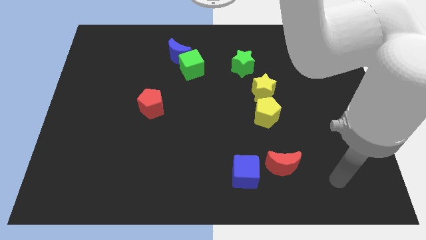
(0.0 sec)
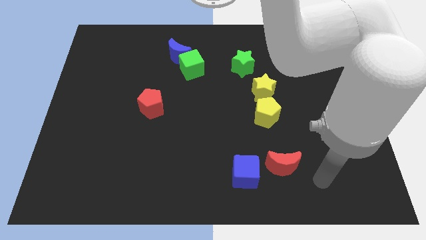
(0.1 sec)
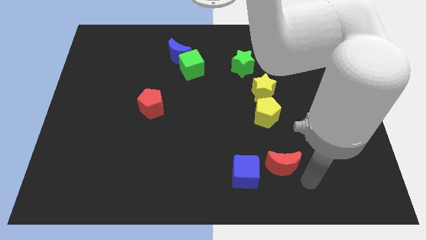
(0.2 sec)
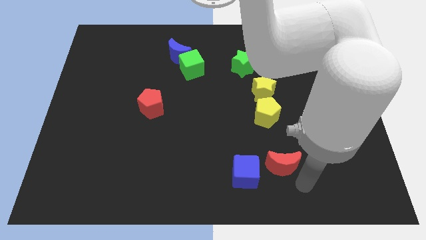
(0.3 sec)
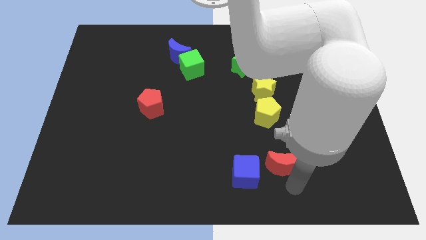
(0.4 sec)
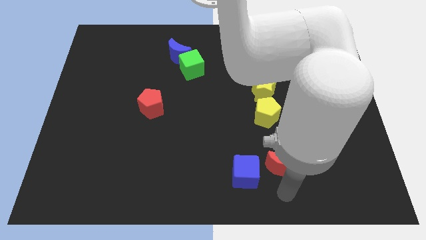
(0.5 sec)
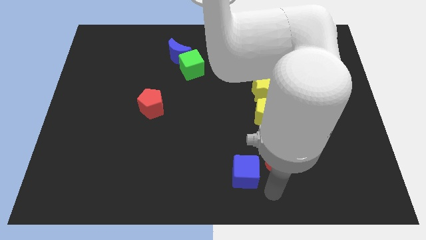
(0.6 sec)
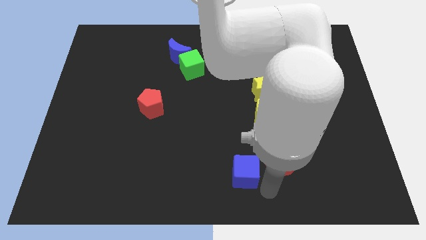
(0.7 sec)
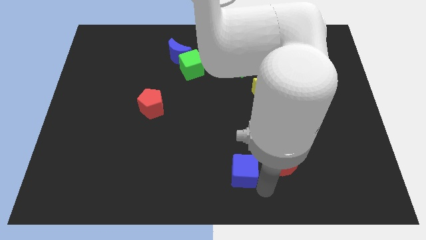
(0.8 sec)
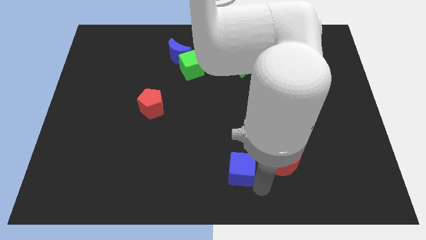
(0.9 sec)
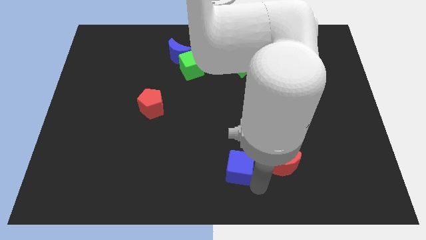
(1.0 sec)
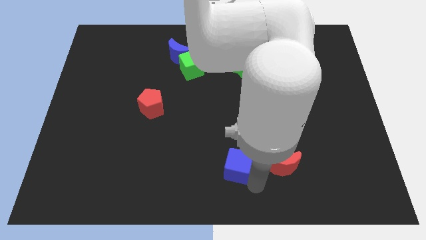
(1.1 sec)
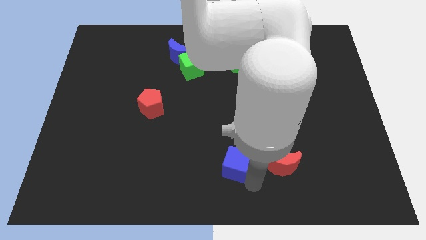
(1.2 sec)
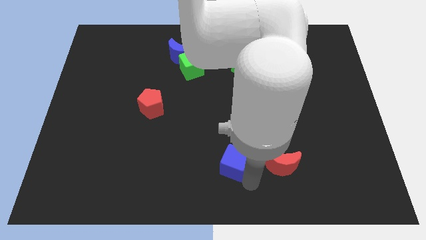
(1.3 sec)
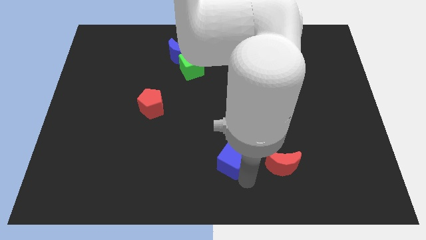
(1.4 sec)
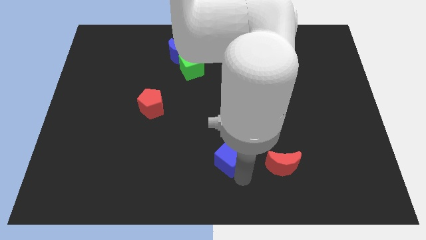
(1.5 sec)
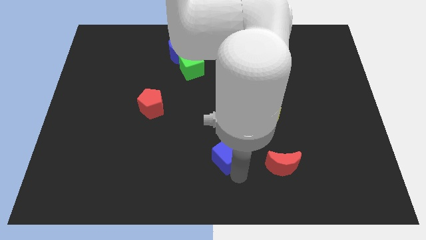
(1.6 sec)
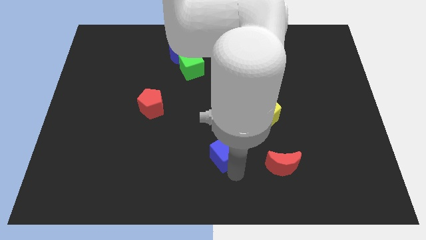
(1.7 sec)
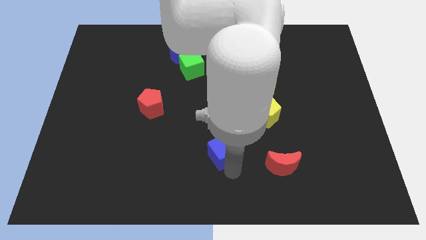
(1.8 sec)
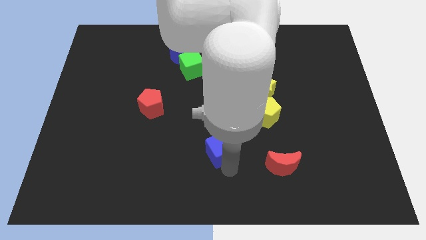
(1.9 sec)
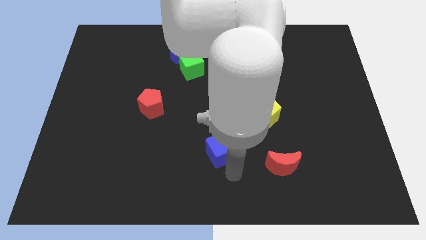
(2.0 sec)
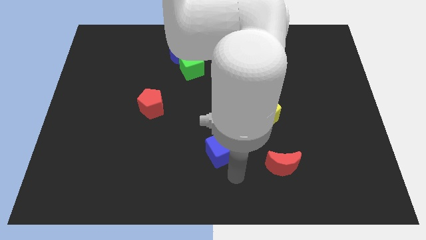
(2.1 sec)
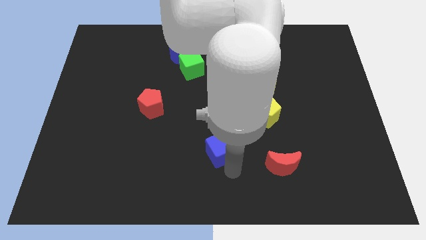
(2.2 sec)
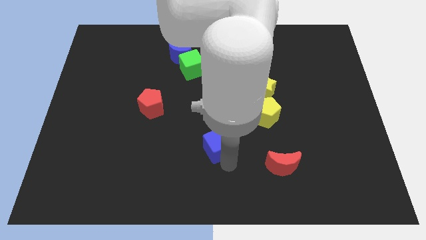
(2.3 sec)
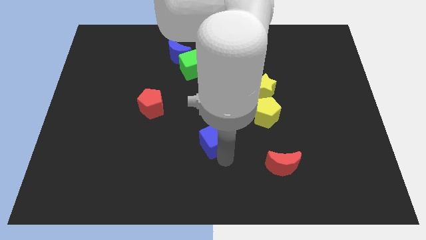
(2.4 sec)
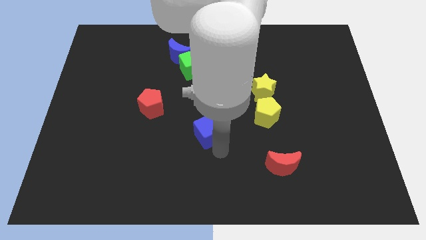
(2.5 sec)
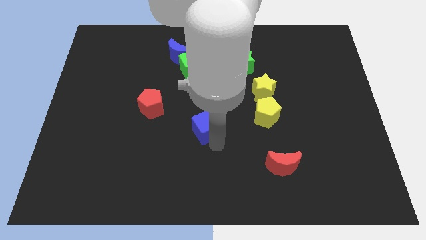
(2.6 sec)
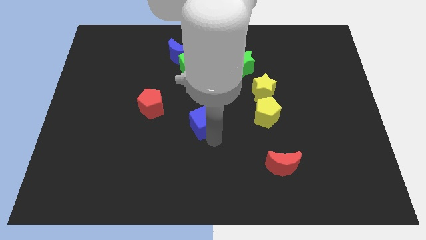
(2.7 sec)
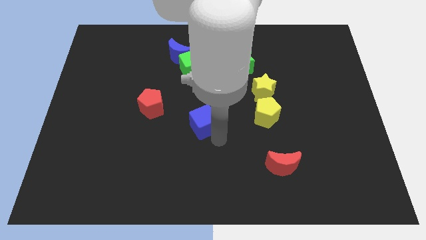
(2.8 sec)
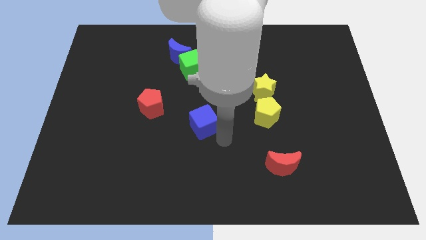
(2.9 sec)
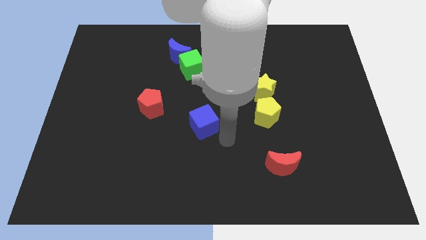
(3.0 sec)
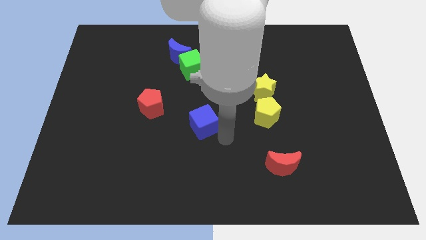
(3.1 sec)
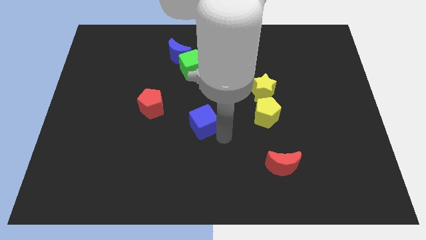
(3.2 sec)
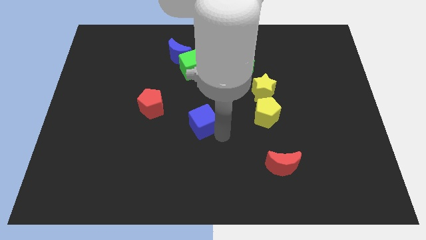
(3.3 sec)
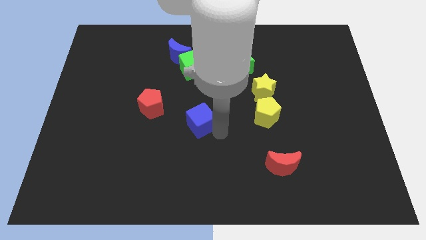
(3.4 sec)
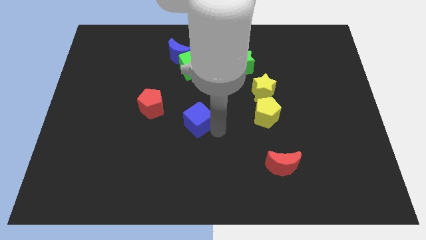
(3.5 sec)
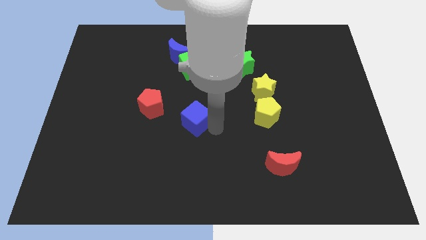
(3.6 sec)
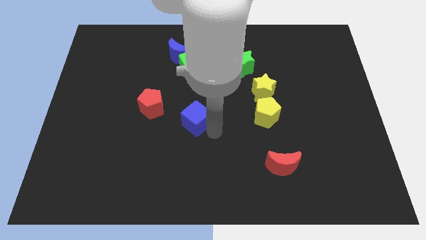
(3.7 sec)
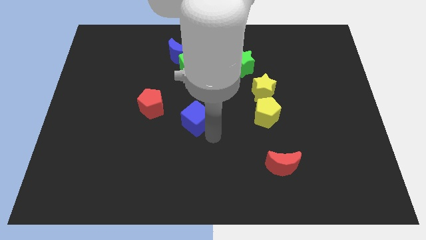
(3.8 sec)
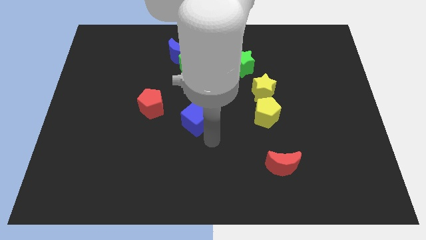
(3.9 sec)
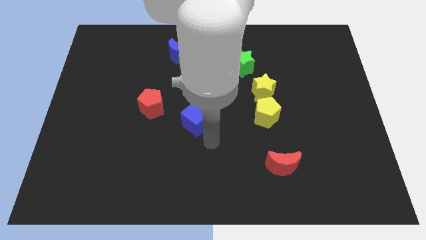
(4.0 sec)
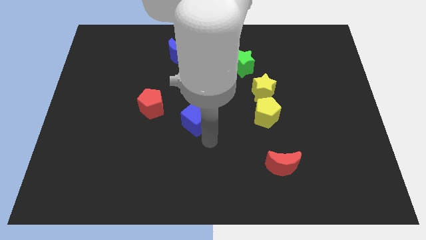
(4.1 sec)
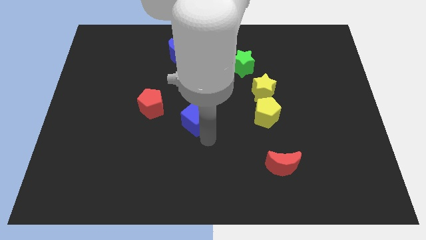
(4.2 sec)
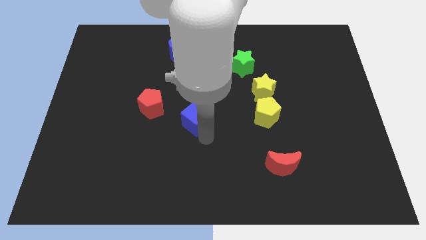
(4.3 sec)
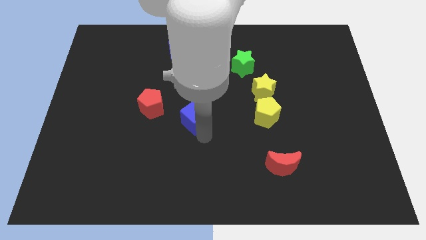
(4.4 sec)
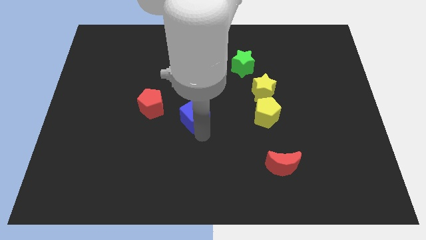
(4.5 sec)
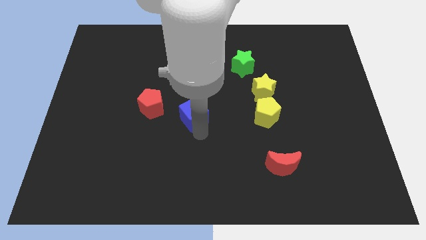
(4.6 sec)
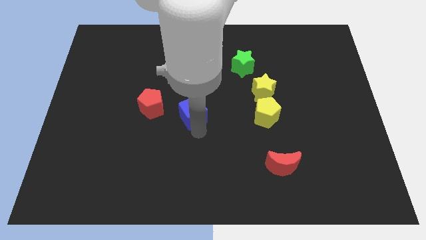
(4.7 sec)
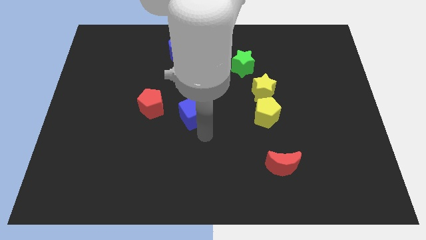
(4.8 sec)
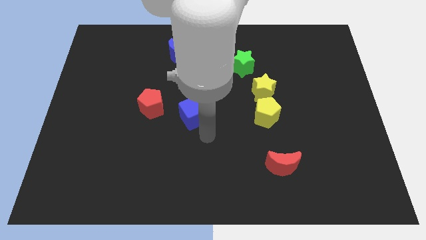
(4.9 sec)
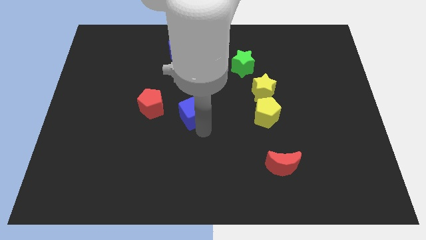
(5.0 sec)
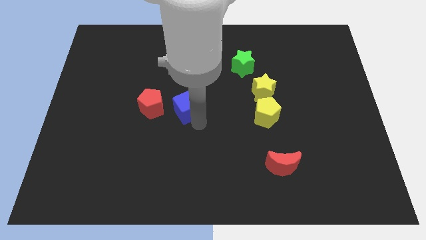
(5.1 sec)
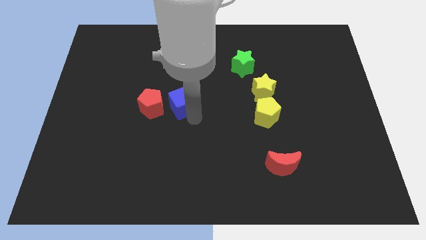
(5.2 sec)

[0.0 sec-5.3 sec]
put the blue cube to the top right side of the red pentagon

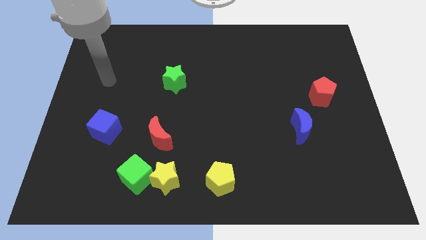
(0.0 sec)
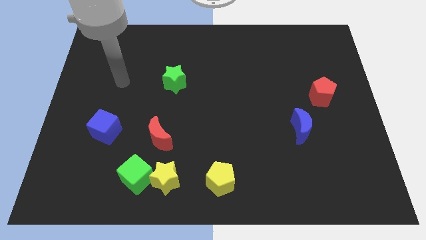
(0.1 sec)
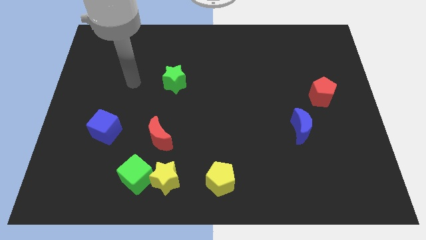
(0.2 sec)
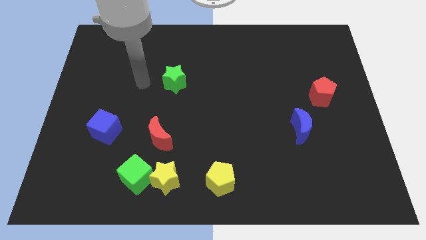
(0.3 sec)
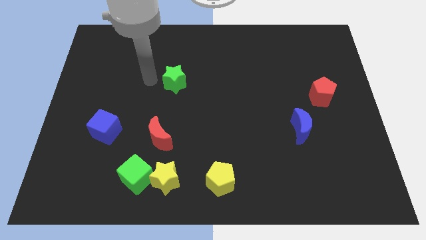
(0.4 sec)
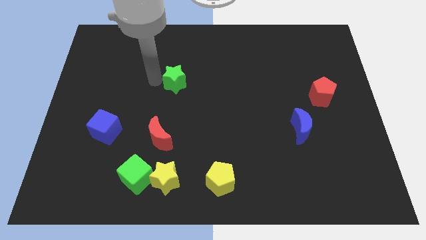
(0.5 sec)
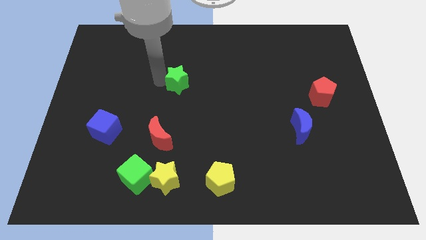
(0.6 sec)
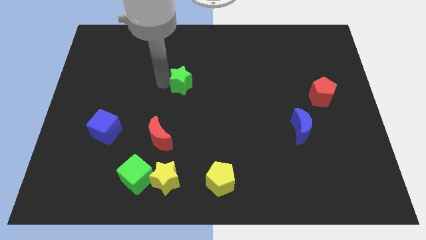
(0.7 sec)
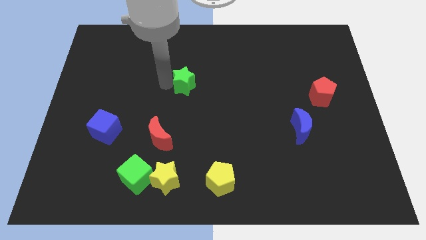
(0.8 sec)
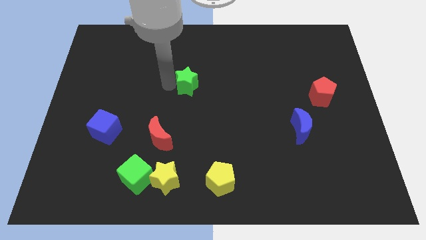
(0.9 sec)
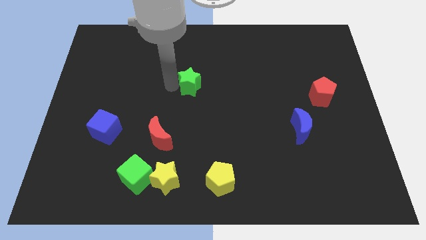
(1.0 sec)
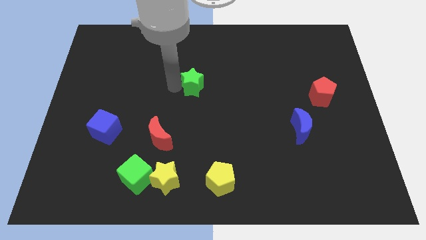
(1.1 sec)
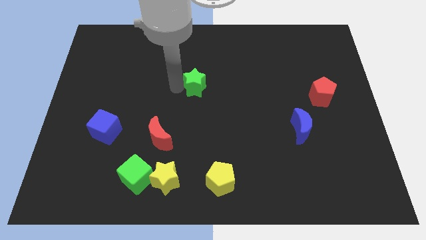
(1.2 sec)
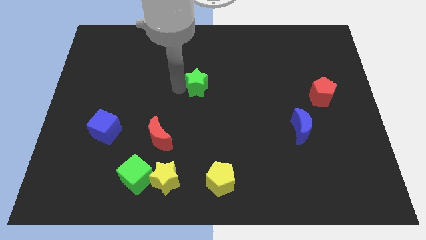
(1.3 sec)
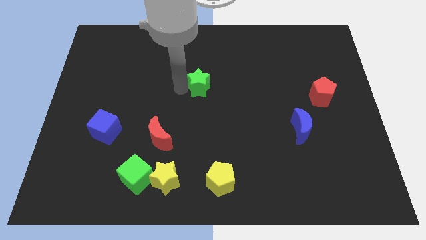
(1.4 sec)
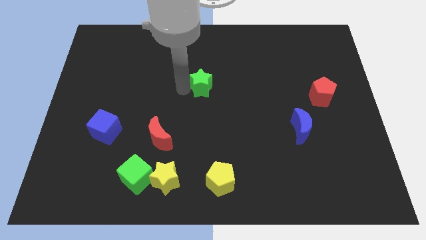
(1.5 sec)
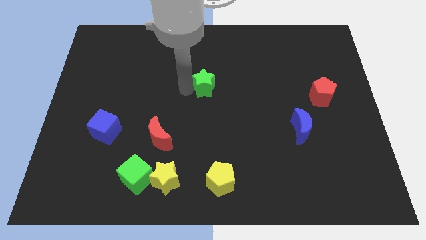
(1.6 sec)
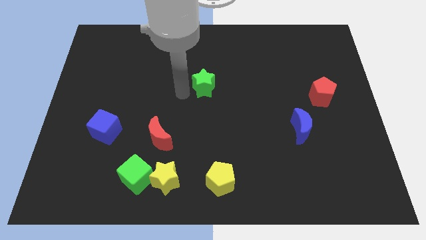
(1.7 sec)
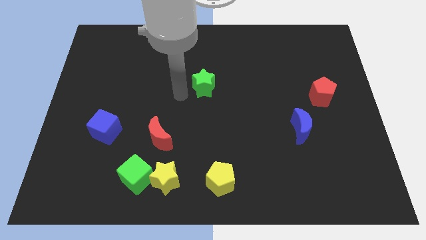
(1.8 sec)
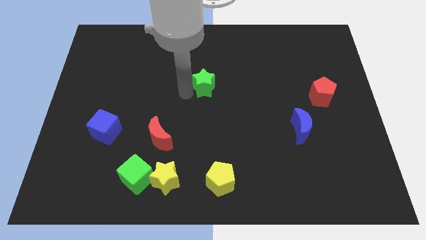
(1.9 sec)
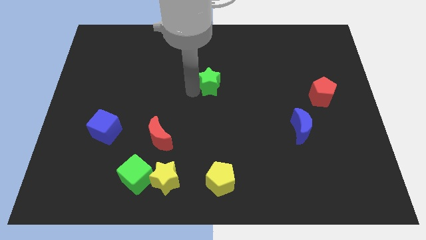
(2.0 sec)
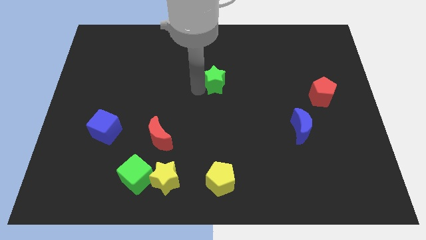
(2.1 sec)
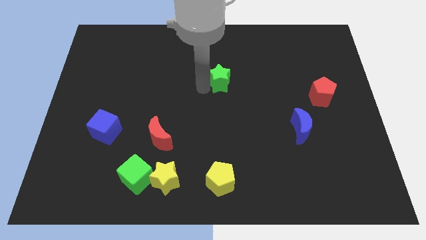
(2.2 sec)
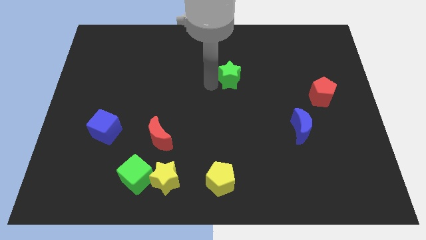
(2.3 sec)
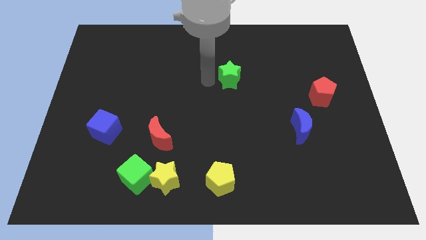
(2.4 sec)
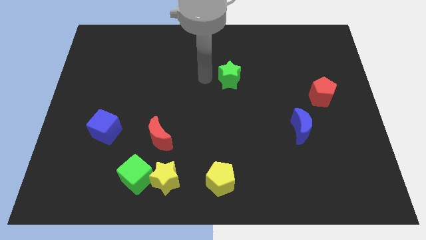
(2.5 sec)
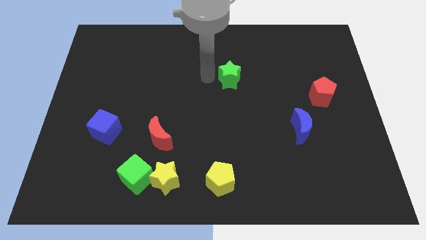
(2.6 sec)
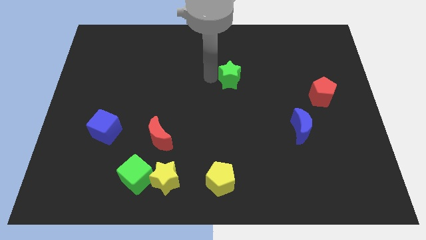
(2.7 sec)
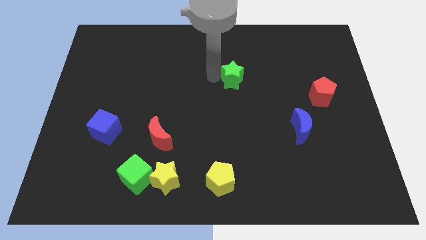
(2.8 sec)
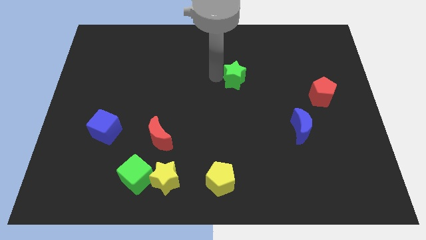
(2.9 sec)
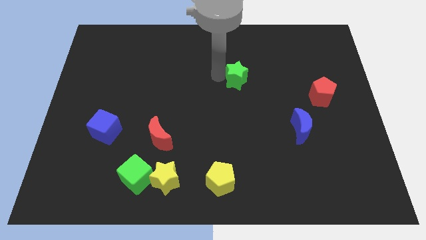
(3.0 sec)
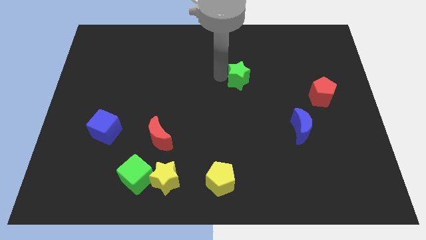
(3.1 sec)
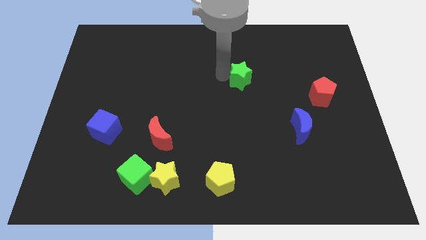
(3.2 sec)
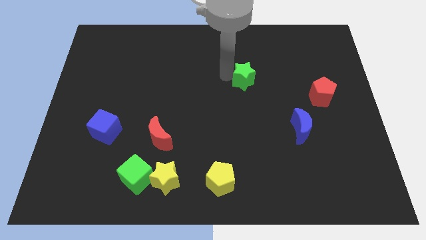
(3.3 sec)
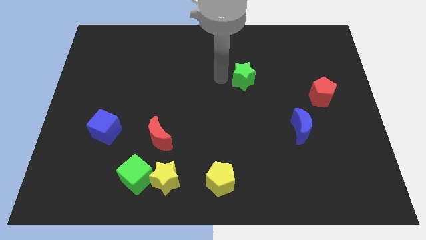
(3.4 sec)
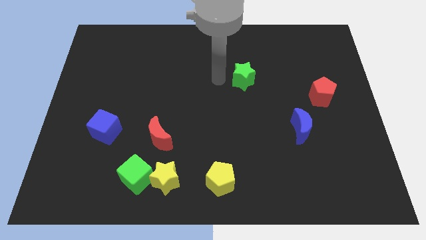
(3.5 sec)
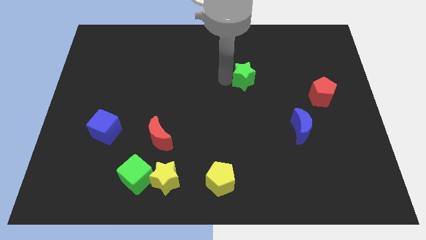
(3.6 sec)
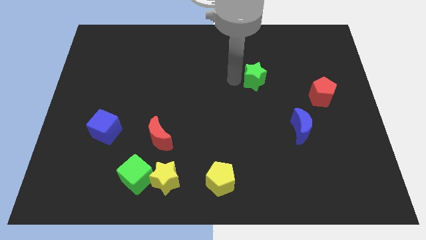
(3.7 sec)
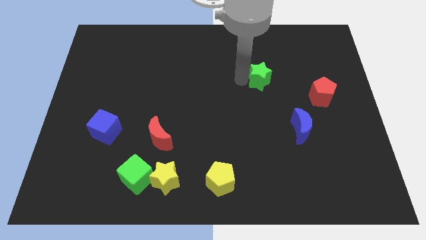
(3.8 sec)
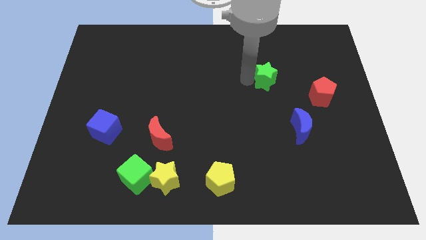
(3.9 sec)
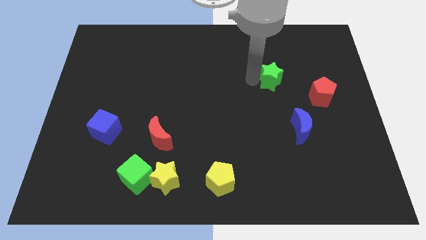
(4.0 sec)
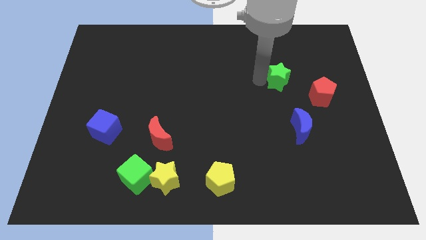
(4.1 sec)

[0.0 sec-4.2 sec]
move the green star to the top left of the red pentagon
